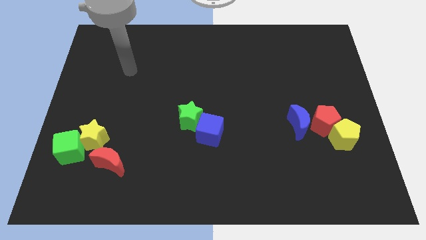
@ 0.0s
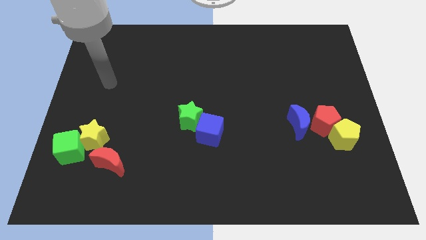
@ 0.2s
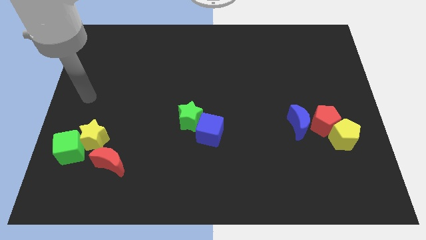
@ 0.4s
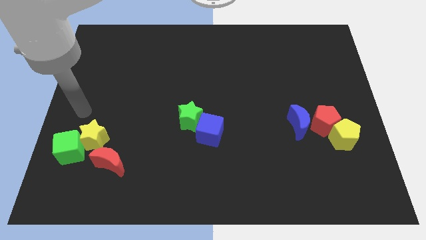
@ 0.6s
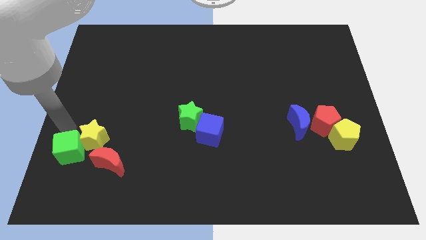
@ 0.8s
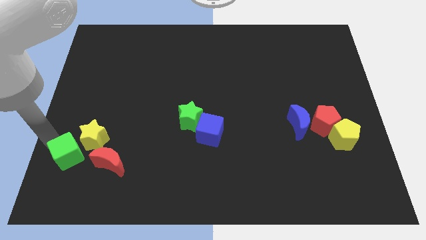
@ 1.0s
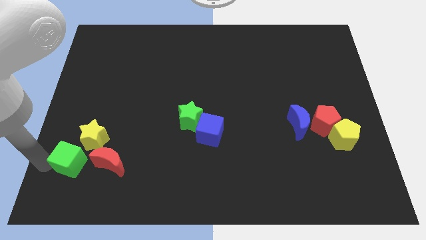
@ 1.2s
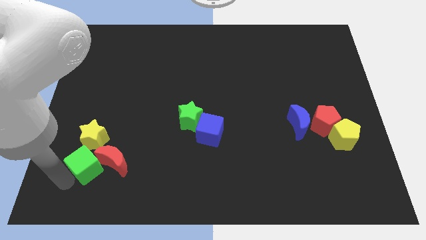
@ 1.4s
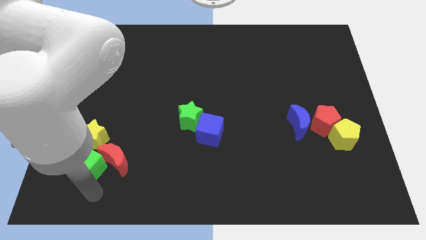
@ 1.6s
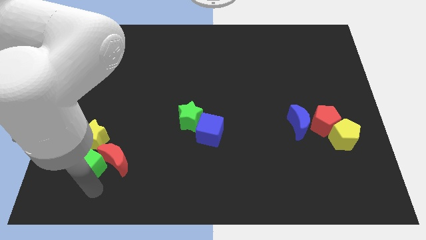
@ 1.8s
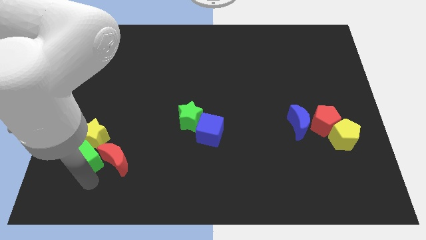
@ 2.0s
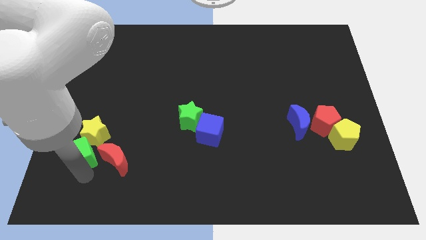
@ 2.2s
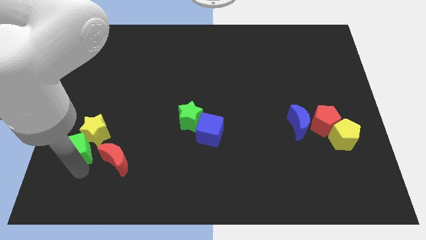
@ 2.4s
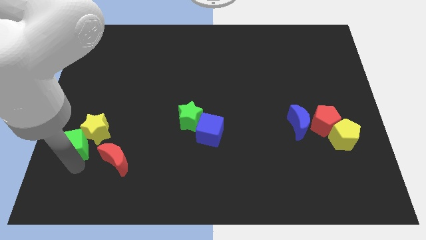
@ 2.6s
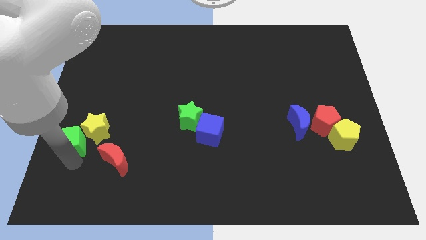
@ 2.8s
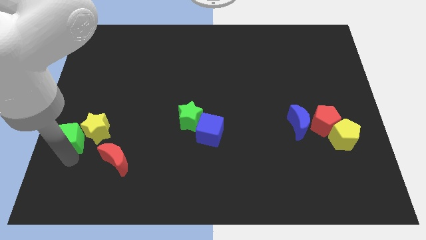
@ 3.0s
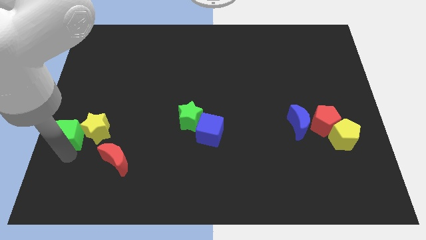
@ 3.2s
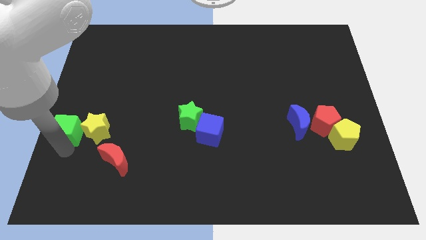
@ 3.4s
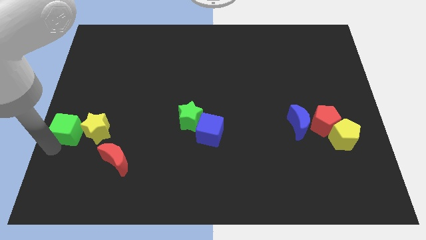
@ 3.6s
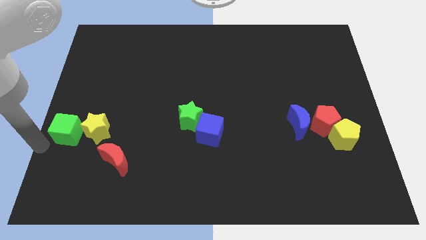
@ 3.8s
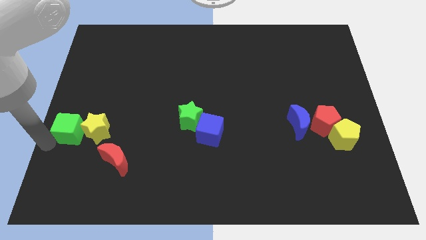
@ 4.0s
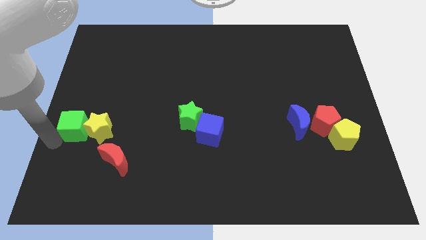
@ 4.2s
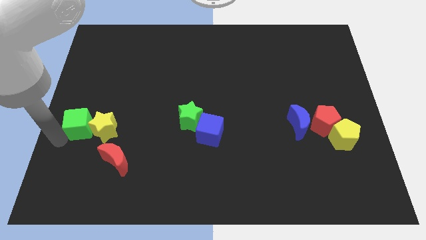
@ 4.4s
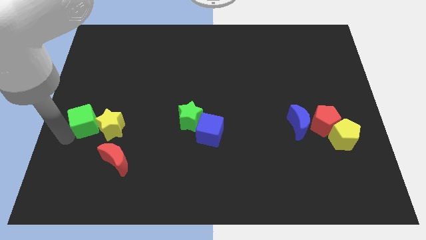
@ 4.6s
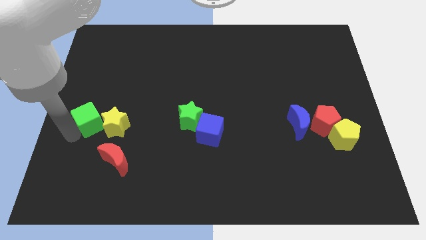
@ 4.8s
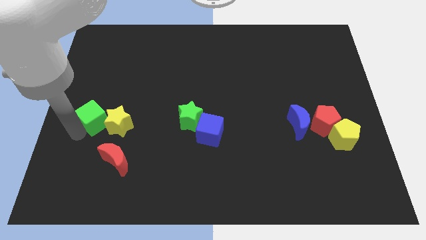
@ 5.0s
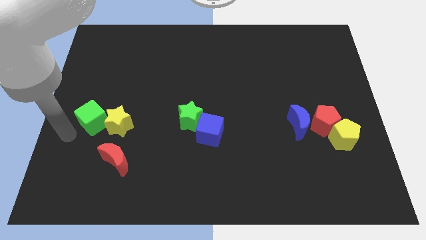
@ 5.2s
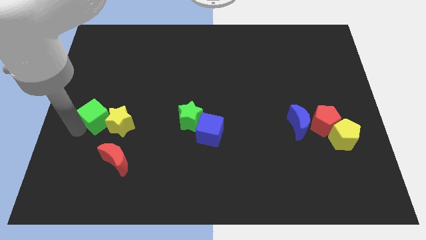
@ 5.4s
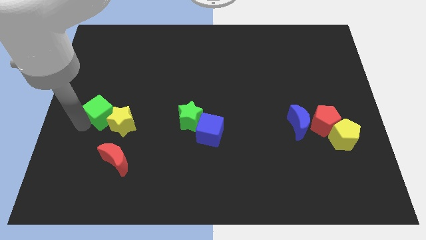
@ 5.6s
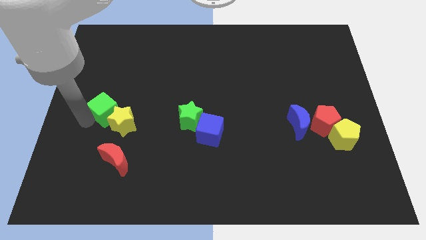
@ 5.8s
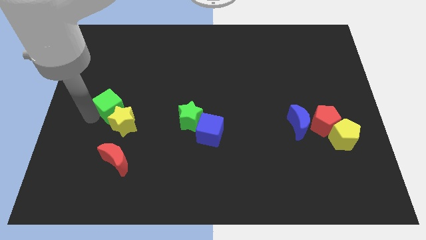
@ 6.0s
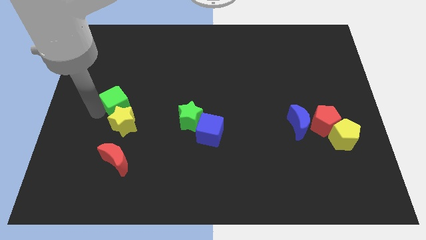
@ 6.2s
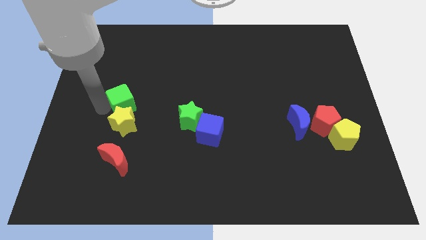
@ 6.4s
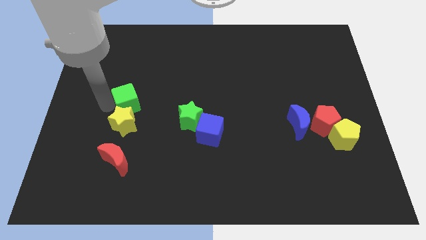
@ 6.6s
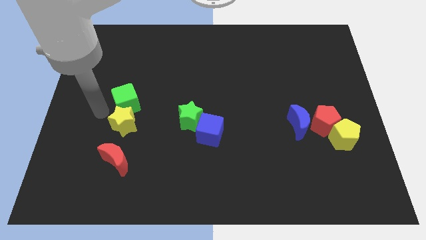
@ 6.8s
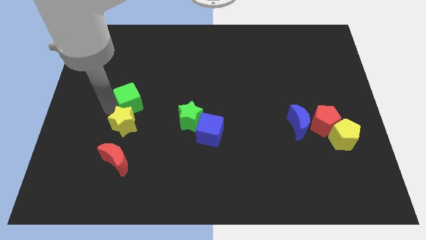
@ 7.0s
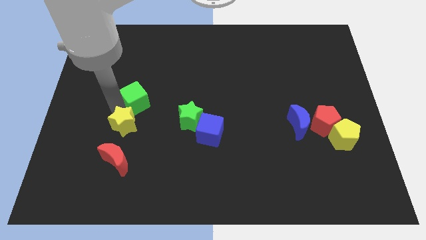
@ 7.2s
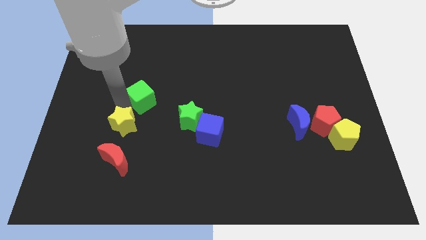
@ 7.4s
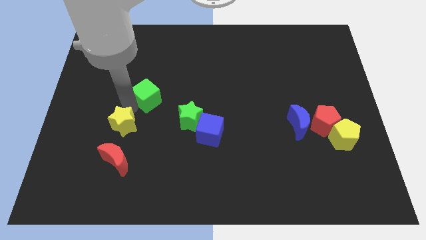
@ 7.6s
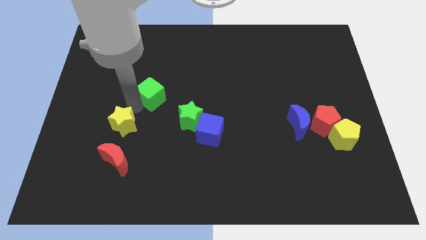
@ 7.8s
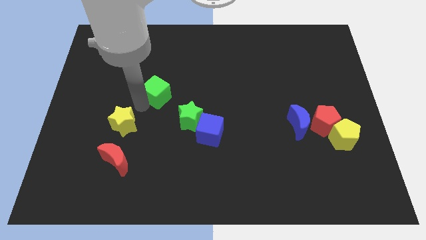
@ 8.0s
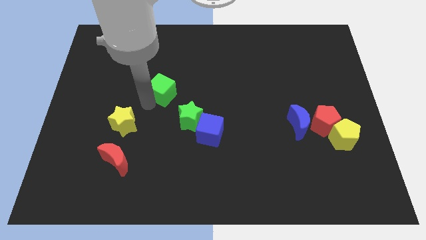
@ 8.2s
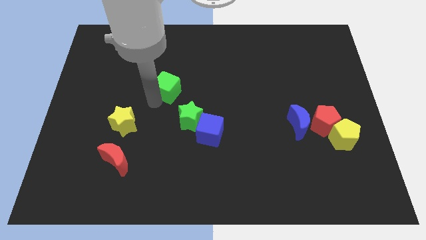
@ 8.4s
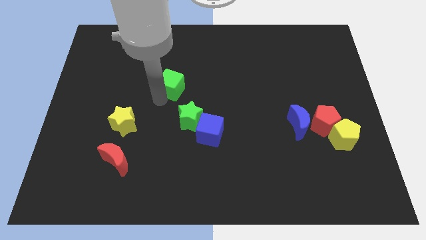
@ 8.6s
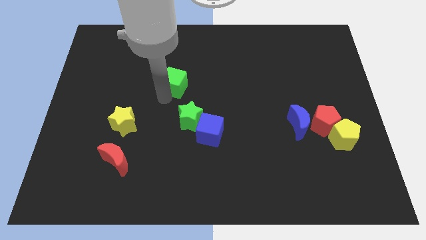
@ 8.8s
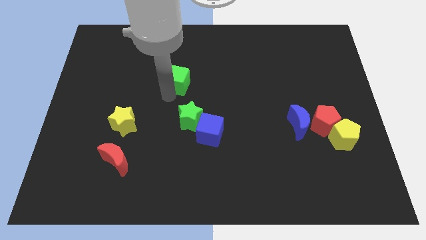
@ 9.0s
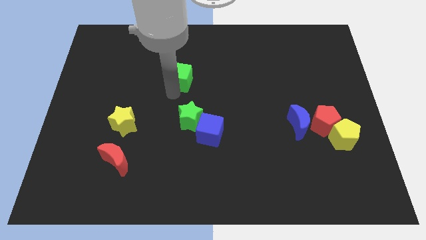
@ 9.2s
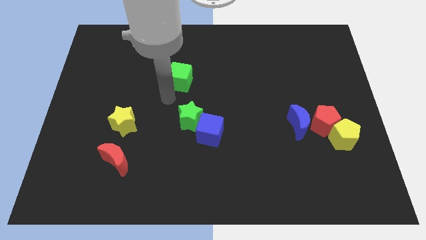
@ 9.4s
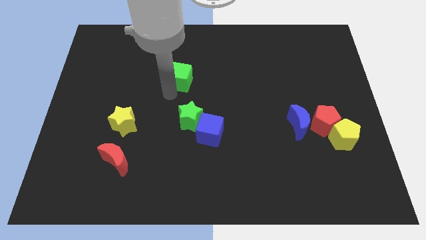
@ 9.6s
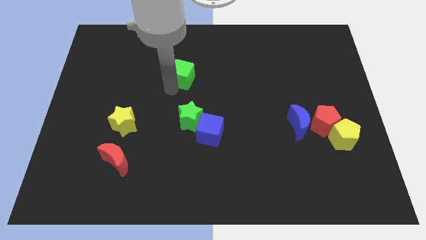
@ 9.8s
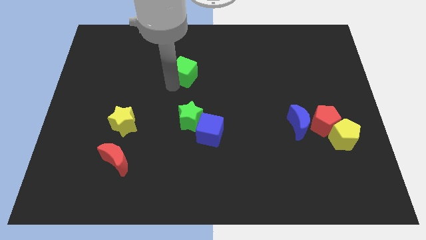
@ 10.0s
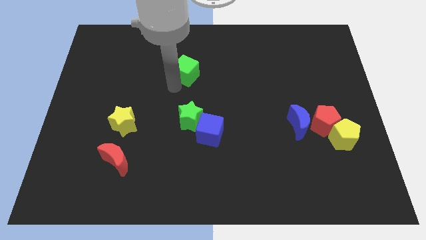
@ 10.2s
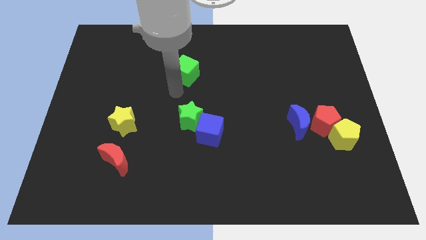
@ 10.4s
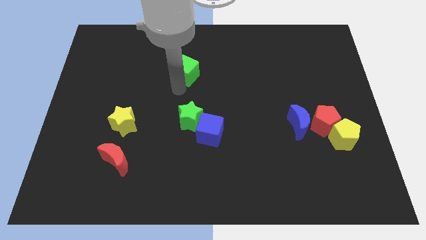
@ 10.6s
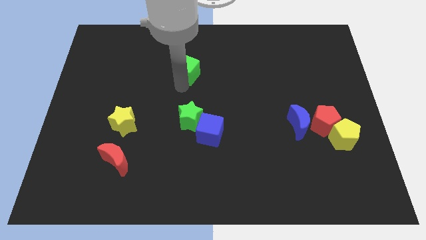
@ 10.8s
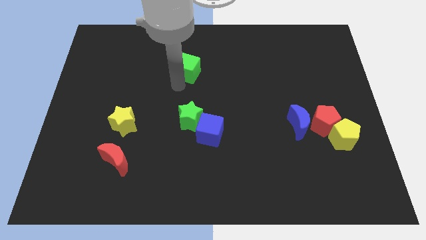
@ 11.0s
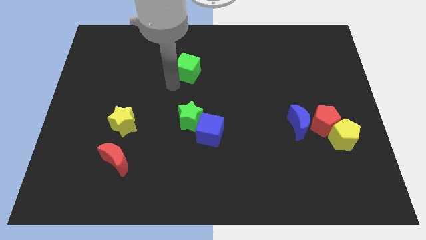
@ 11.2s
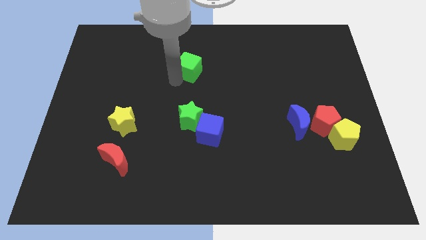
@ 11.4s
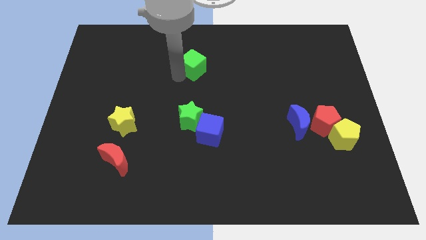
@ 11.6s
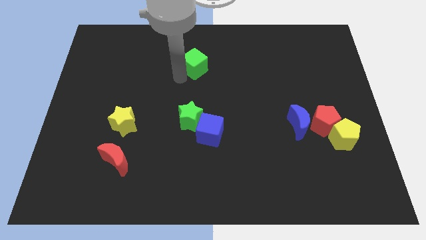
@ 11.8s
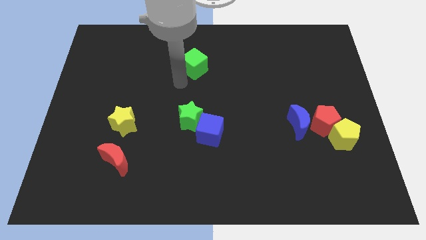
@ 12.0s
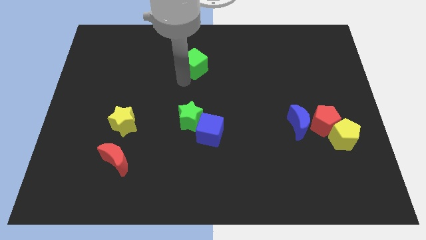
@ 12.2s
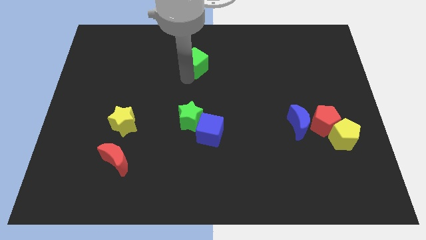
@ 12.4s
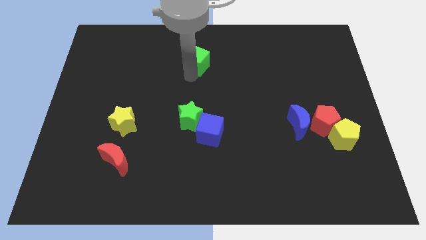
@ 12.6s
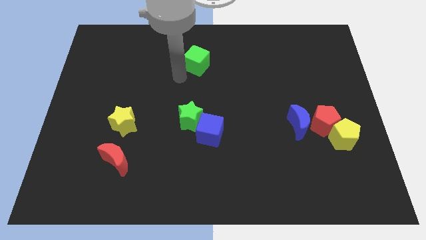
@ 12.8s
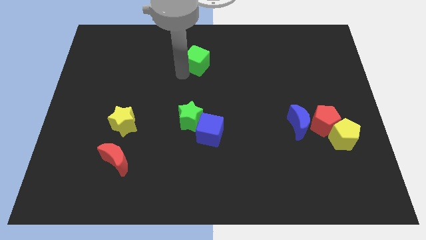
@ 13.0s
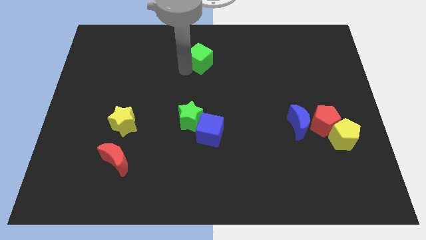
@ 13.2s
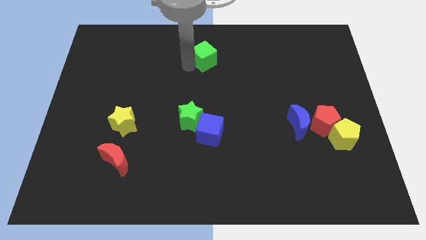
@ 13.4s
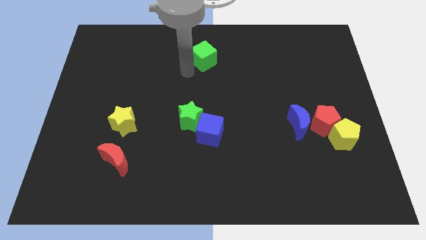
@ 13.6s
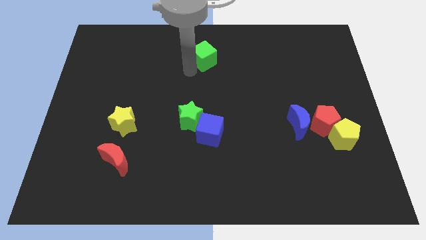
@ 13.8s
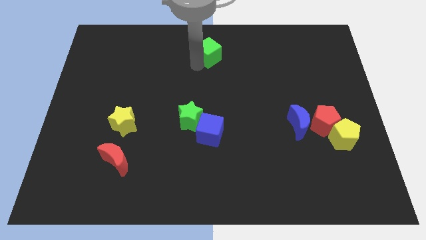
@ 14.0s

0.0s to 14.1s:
put the green cube to the top side

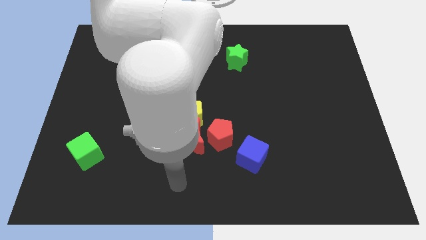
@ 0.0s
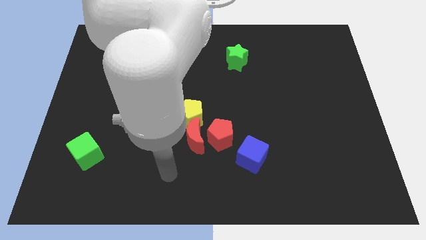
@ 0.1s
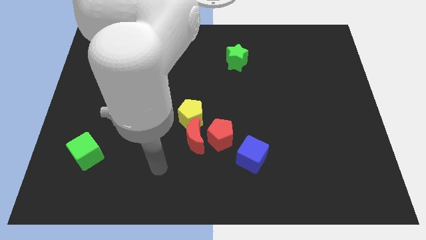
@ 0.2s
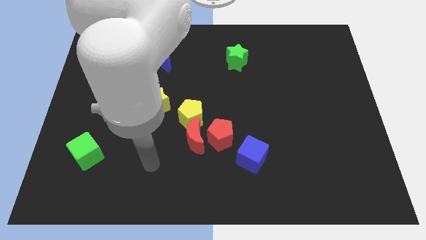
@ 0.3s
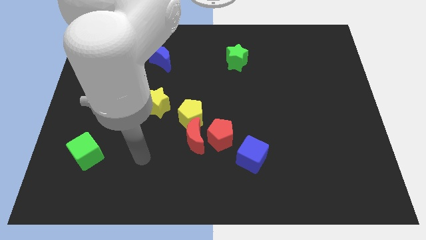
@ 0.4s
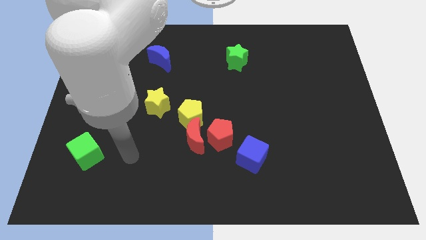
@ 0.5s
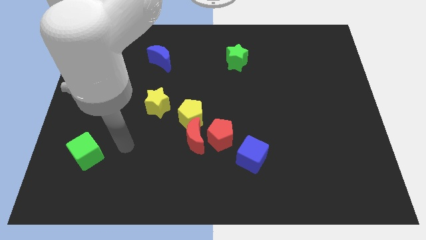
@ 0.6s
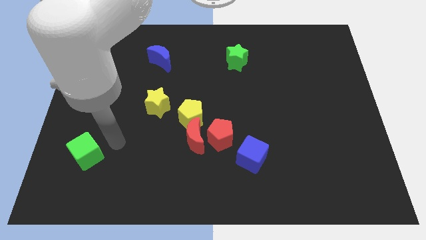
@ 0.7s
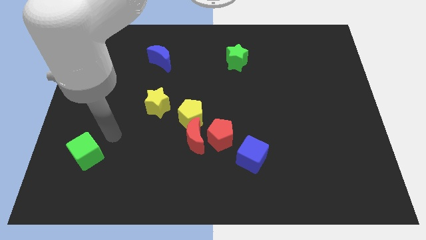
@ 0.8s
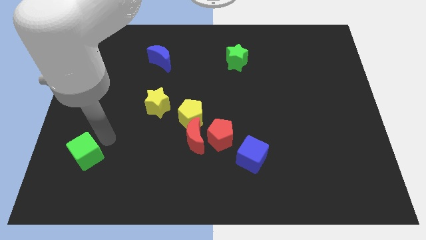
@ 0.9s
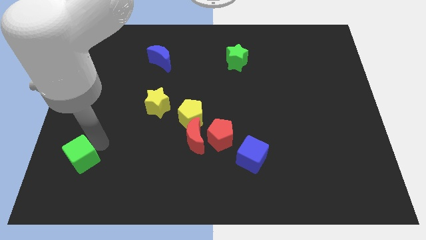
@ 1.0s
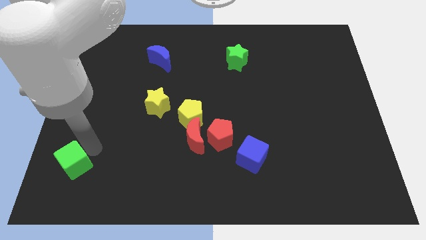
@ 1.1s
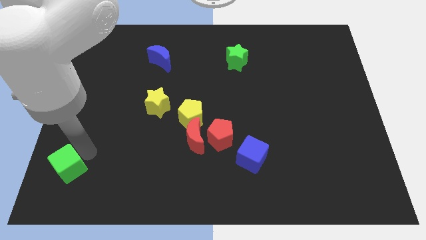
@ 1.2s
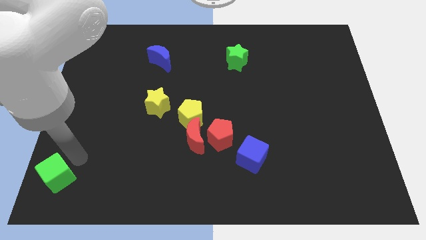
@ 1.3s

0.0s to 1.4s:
move the green cube to the bottom left corner
